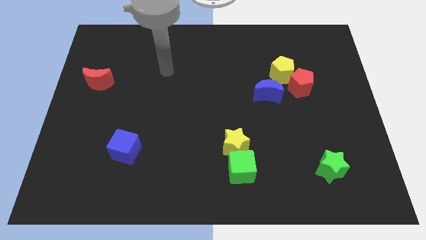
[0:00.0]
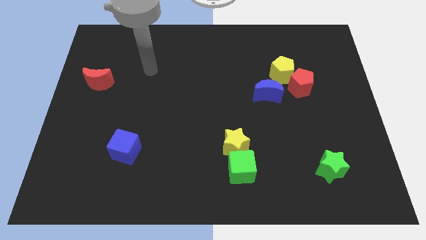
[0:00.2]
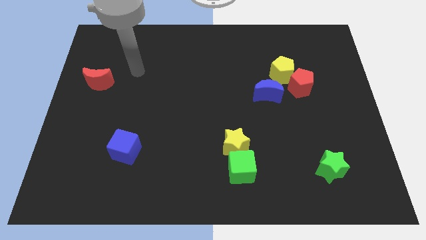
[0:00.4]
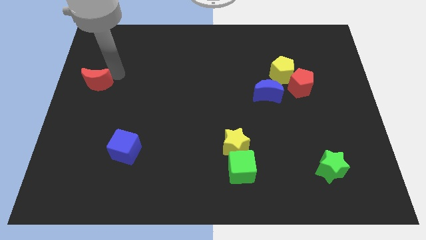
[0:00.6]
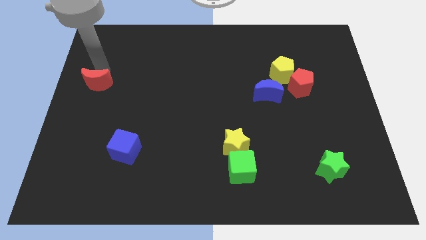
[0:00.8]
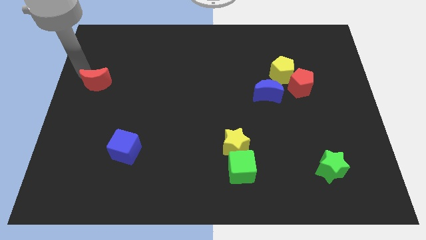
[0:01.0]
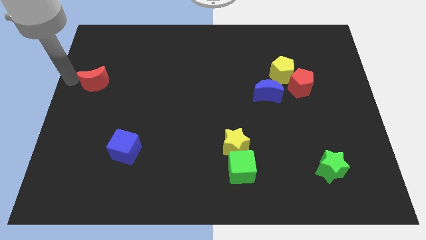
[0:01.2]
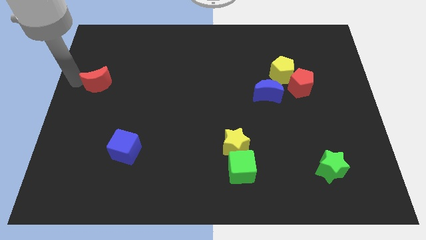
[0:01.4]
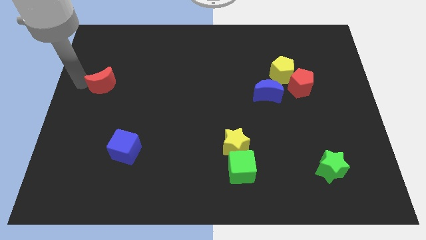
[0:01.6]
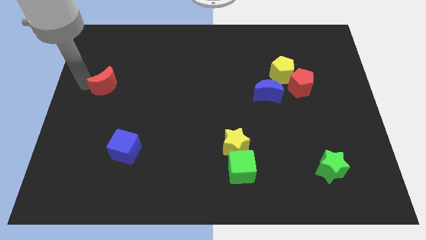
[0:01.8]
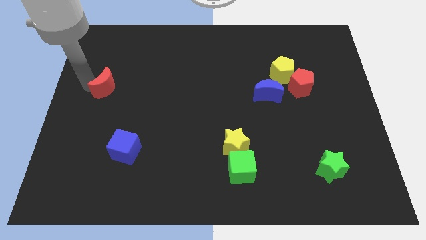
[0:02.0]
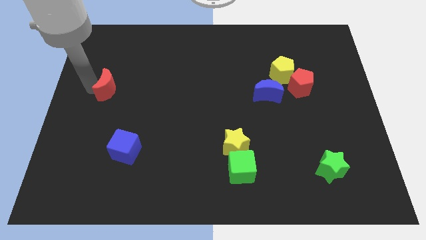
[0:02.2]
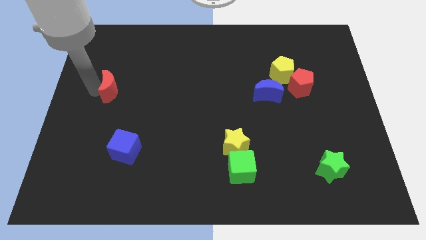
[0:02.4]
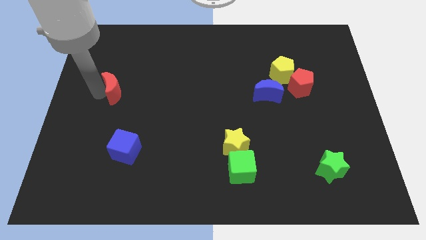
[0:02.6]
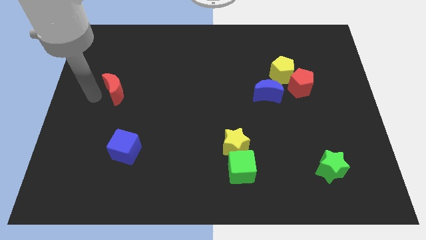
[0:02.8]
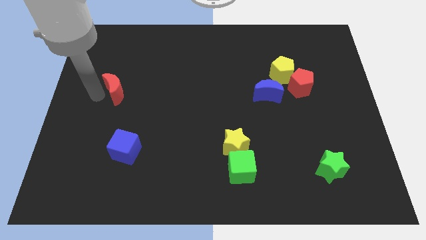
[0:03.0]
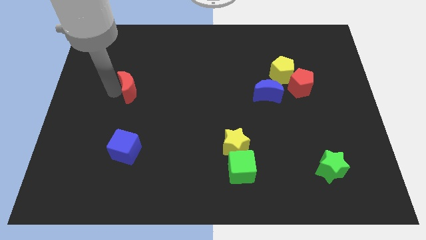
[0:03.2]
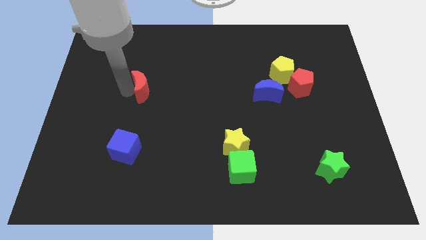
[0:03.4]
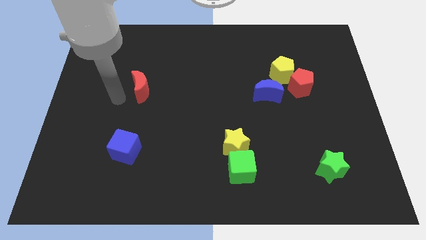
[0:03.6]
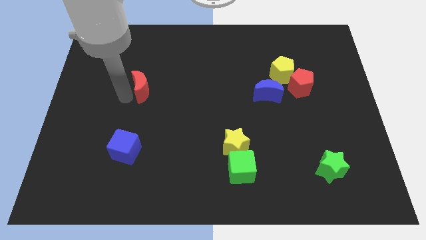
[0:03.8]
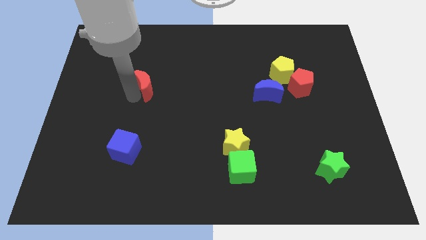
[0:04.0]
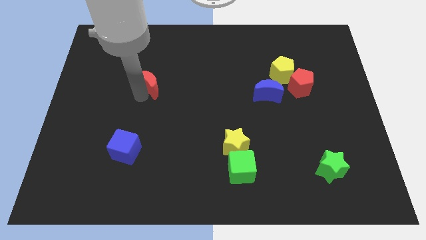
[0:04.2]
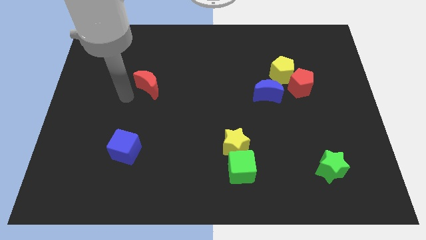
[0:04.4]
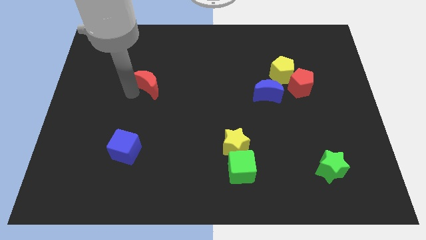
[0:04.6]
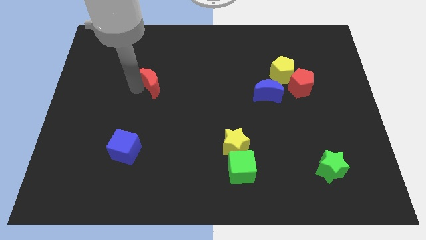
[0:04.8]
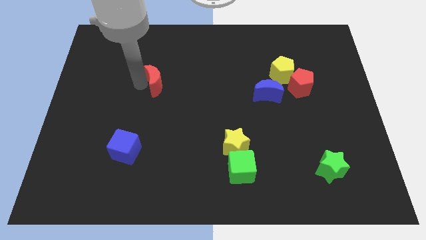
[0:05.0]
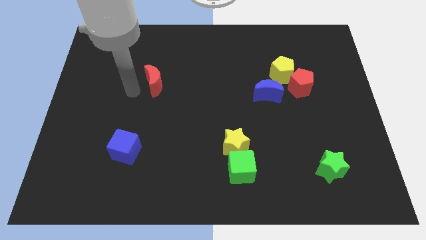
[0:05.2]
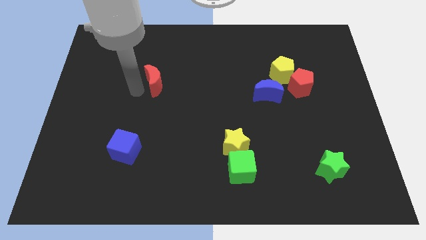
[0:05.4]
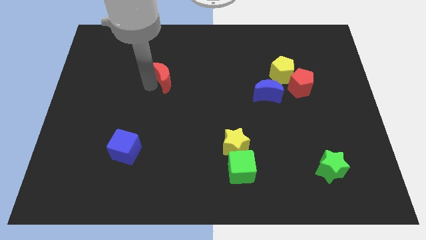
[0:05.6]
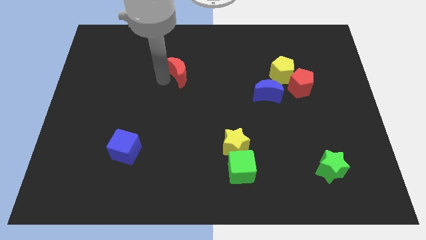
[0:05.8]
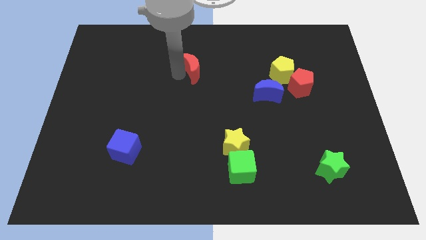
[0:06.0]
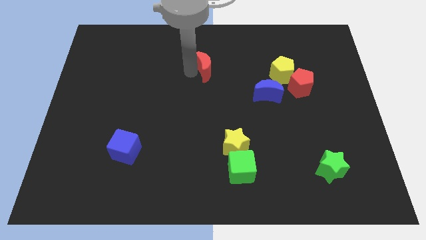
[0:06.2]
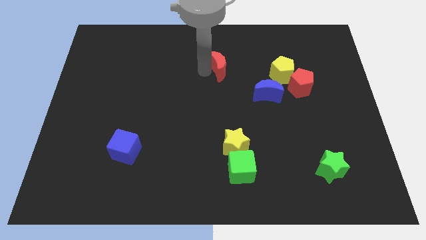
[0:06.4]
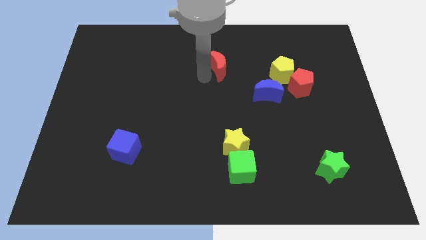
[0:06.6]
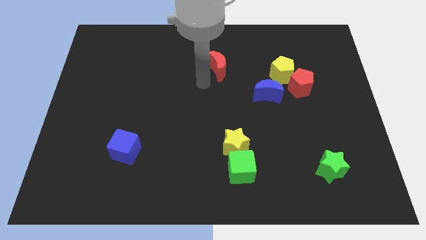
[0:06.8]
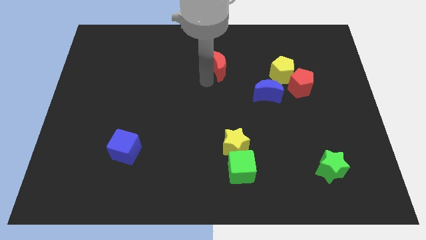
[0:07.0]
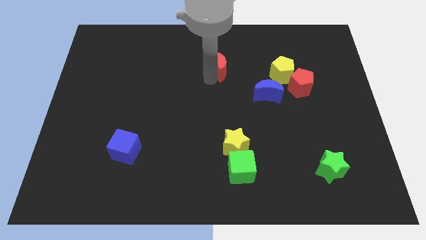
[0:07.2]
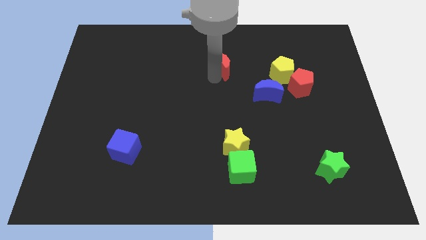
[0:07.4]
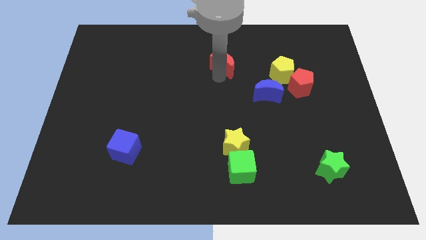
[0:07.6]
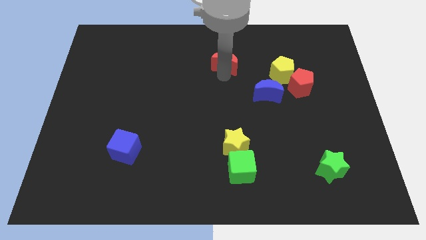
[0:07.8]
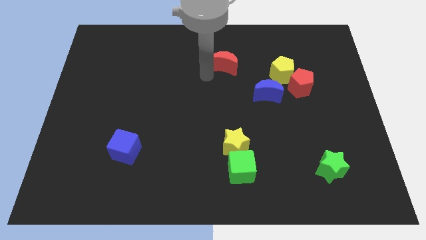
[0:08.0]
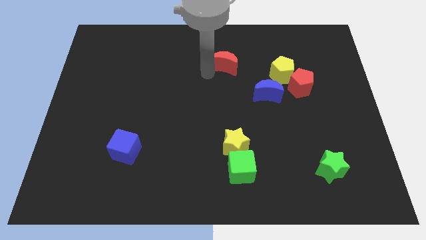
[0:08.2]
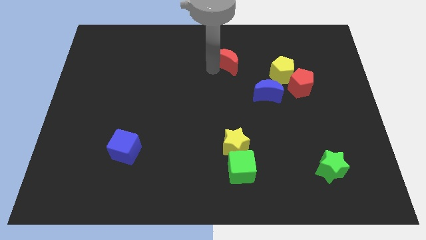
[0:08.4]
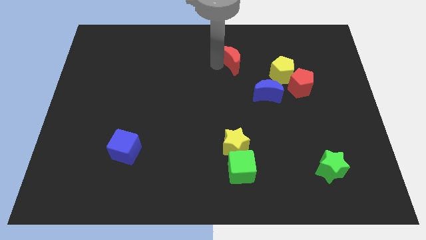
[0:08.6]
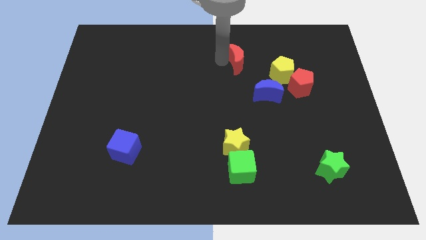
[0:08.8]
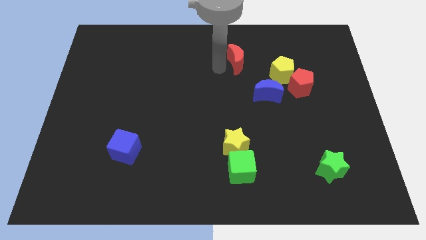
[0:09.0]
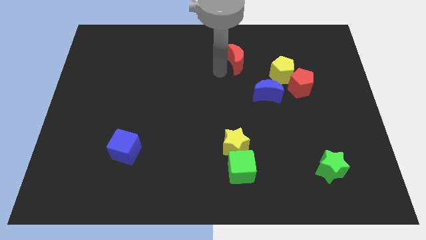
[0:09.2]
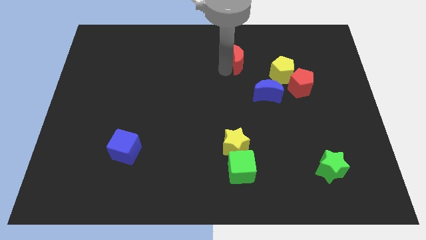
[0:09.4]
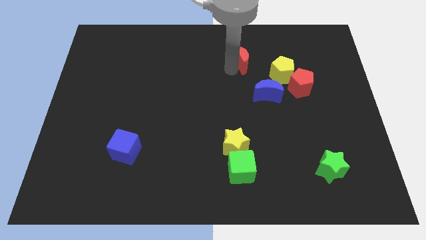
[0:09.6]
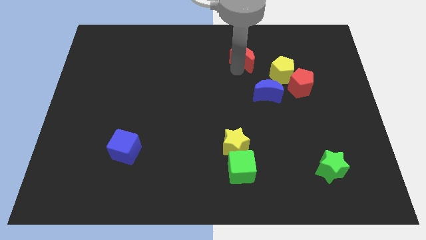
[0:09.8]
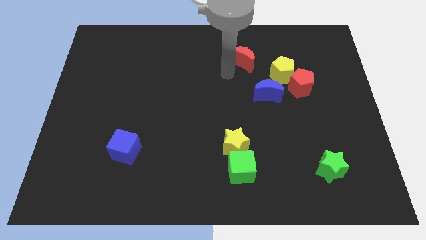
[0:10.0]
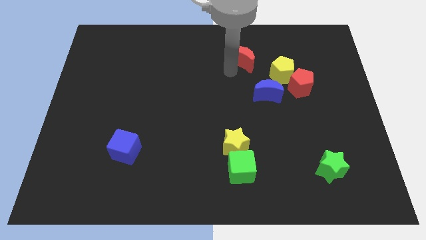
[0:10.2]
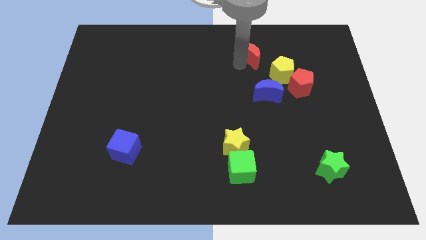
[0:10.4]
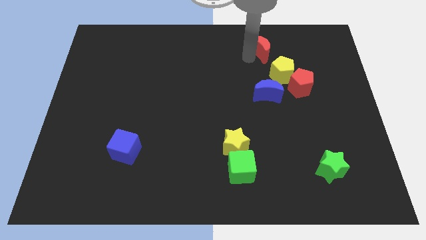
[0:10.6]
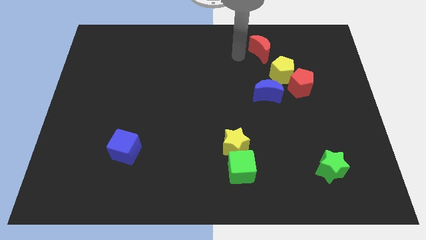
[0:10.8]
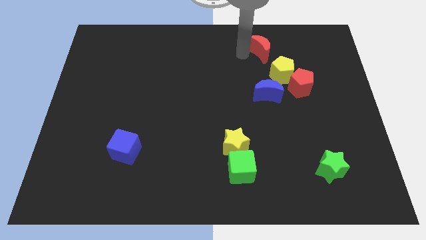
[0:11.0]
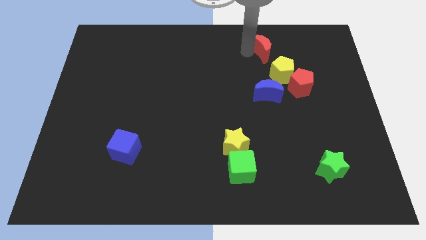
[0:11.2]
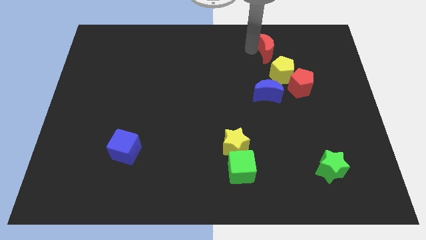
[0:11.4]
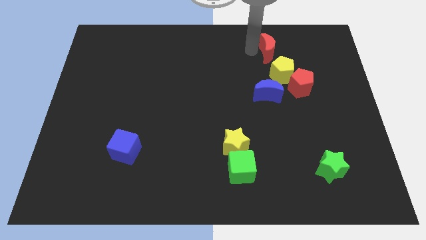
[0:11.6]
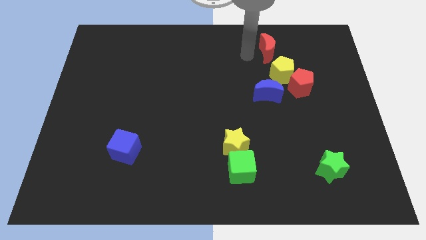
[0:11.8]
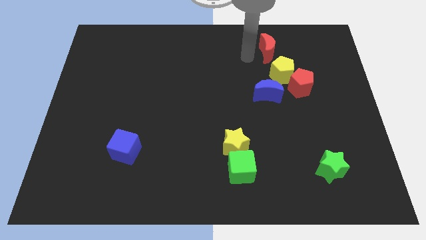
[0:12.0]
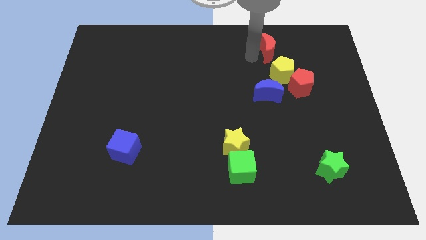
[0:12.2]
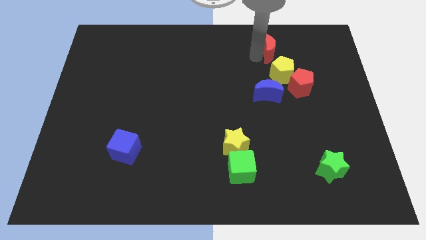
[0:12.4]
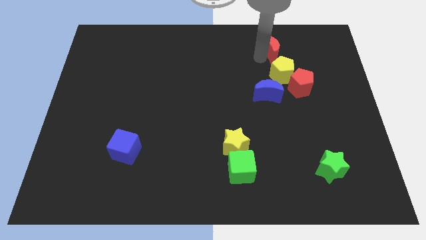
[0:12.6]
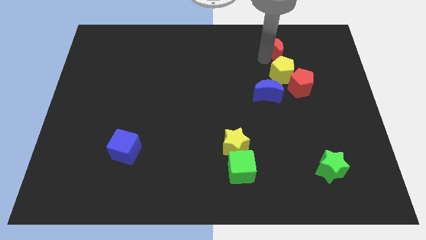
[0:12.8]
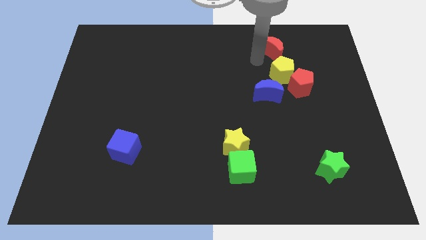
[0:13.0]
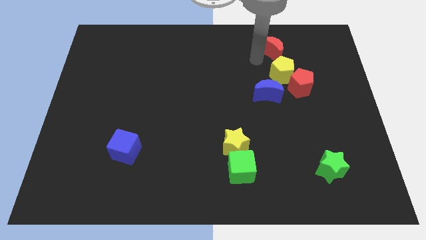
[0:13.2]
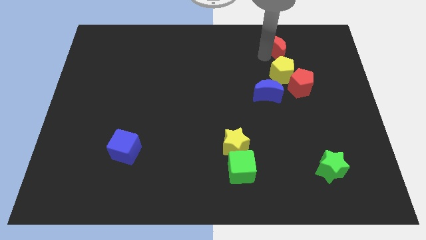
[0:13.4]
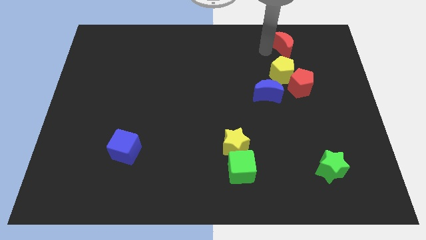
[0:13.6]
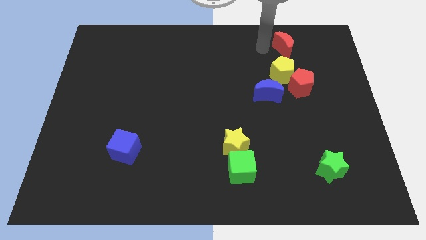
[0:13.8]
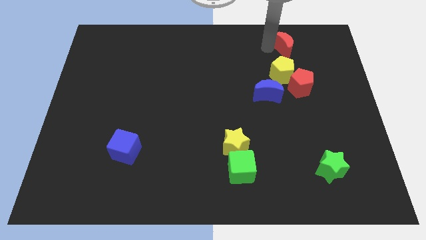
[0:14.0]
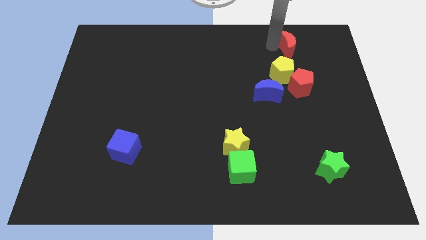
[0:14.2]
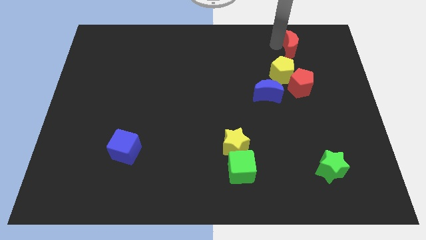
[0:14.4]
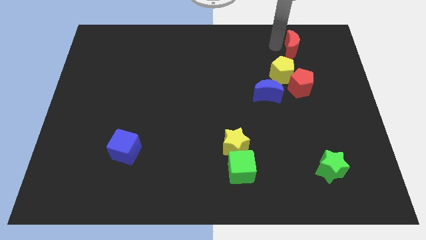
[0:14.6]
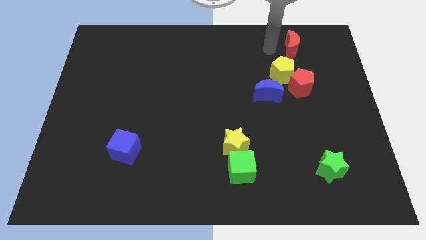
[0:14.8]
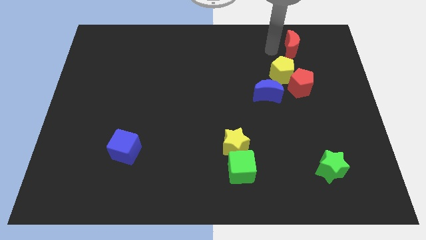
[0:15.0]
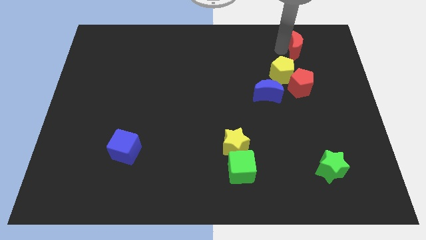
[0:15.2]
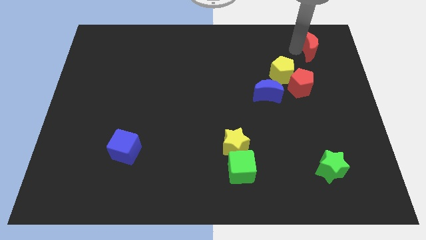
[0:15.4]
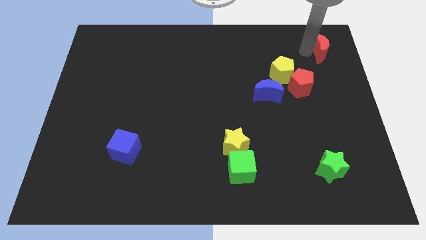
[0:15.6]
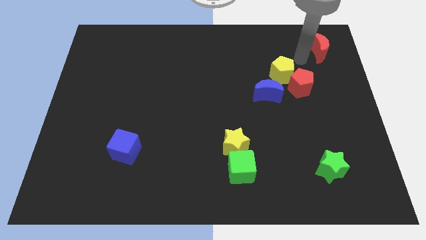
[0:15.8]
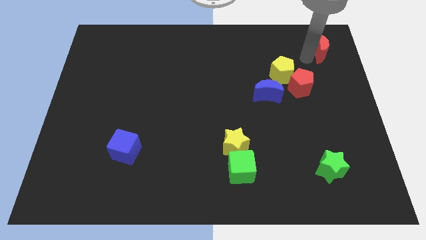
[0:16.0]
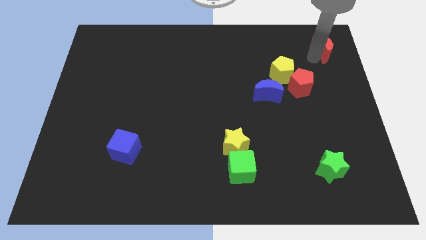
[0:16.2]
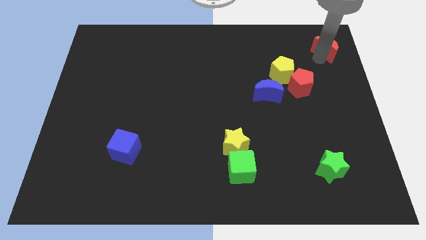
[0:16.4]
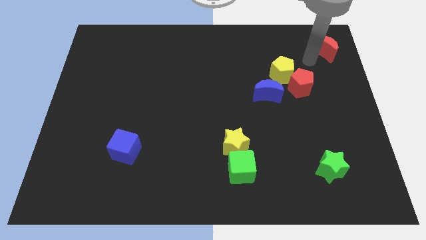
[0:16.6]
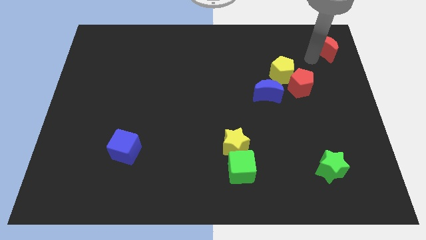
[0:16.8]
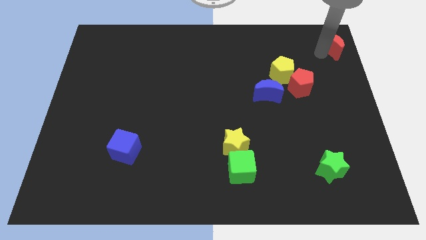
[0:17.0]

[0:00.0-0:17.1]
put the red moon to the top right of the board
